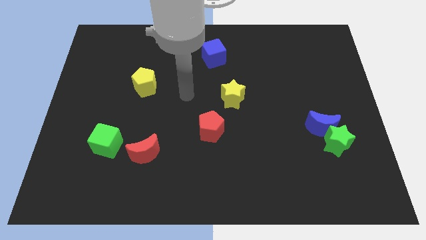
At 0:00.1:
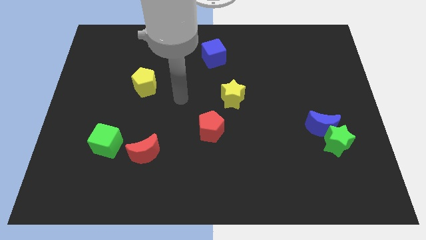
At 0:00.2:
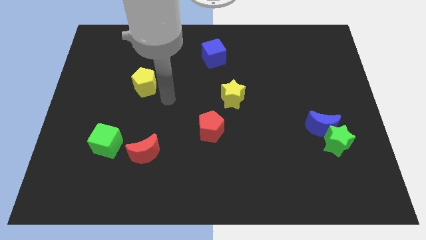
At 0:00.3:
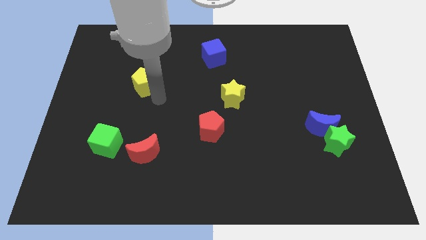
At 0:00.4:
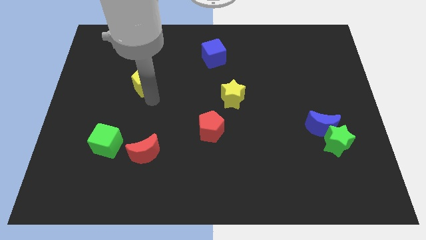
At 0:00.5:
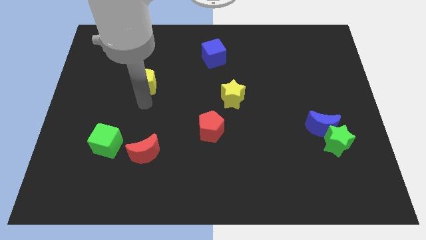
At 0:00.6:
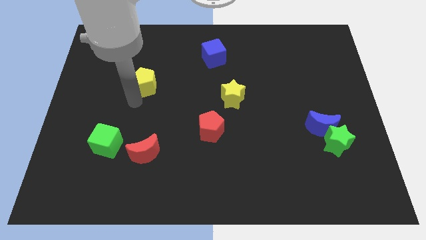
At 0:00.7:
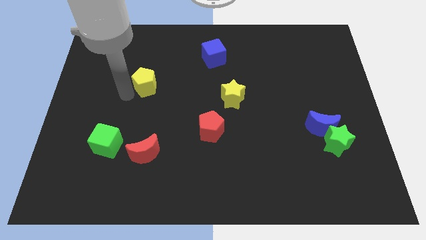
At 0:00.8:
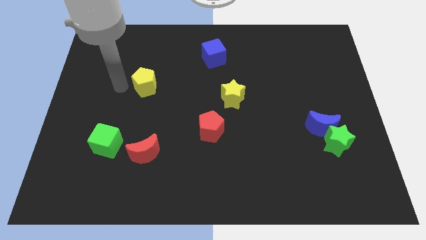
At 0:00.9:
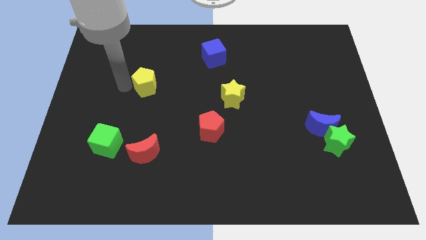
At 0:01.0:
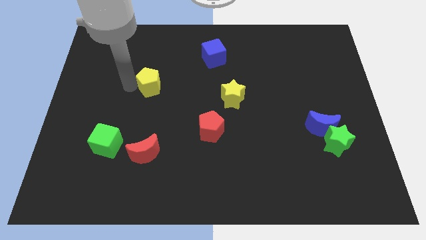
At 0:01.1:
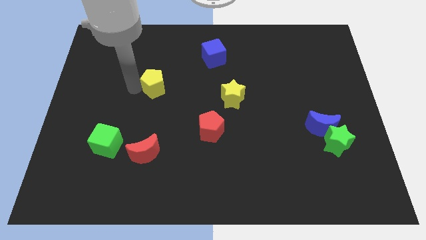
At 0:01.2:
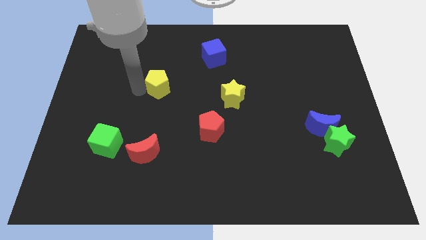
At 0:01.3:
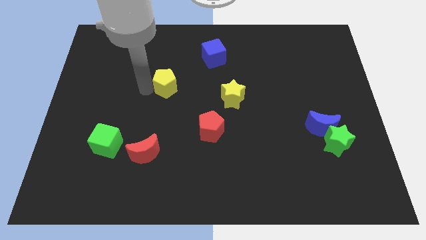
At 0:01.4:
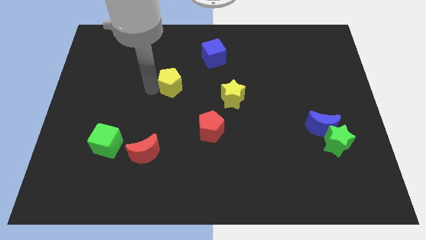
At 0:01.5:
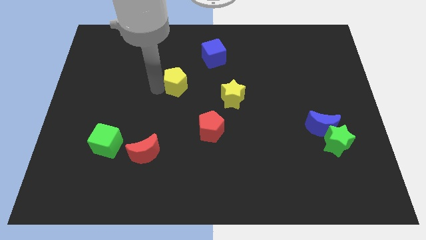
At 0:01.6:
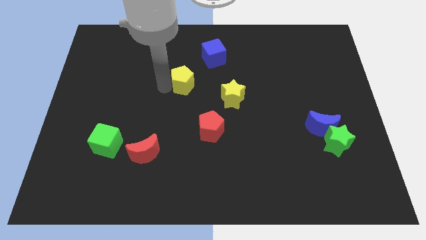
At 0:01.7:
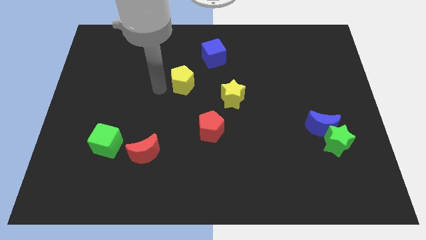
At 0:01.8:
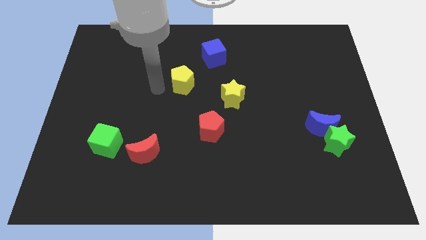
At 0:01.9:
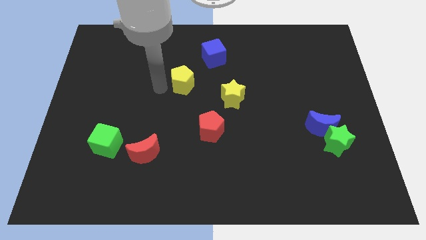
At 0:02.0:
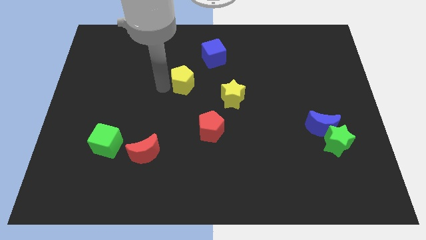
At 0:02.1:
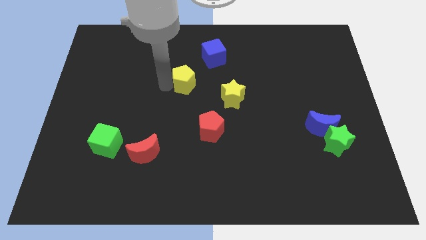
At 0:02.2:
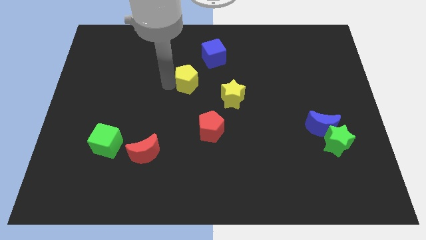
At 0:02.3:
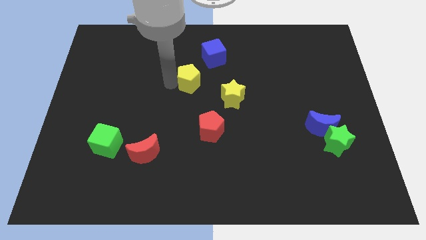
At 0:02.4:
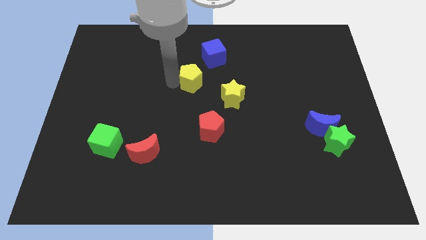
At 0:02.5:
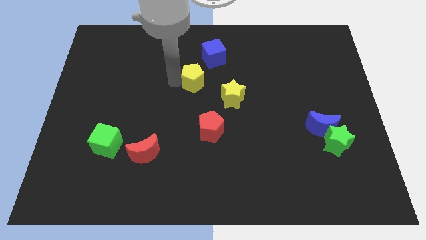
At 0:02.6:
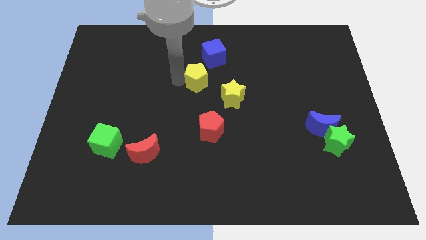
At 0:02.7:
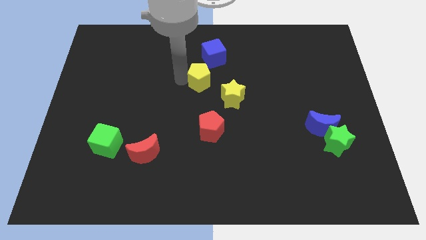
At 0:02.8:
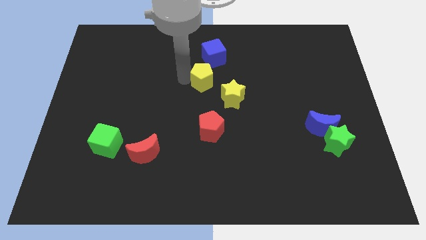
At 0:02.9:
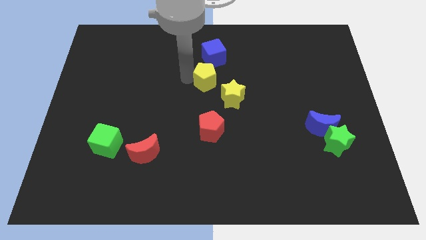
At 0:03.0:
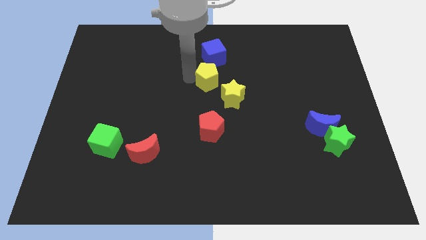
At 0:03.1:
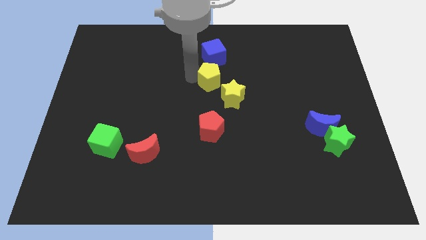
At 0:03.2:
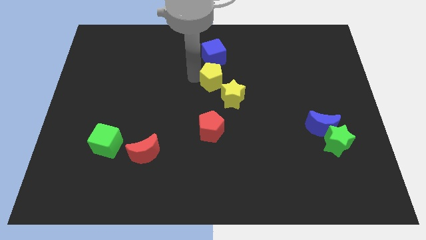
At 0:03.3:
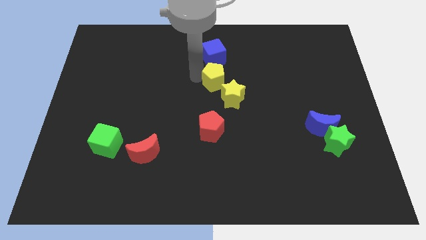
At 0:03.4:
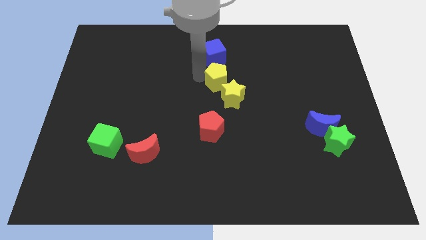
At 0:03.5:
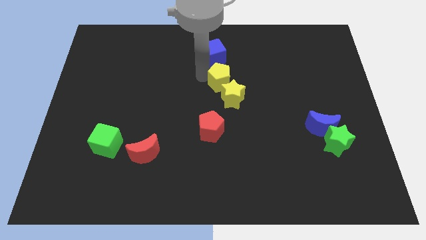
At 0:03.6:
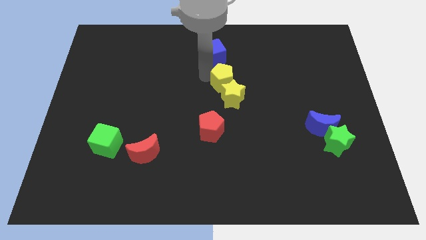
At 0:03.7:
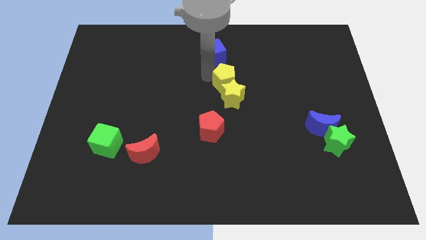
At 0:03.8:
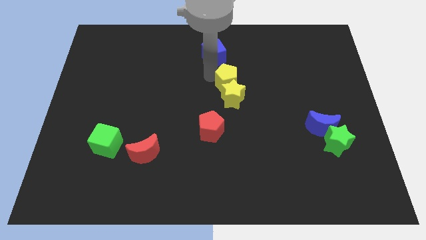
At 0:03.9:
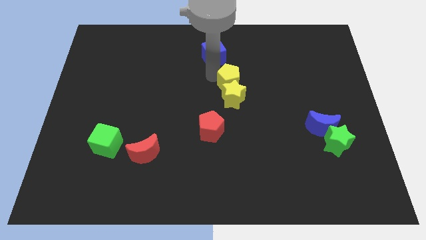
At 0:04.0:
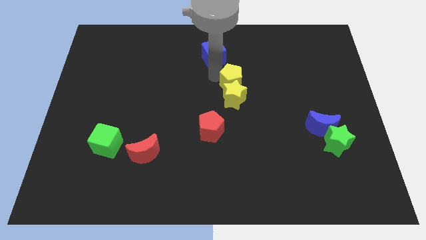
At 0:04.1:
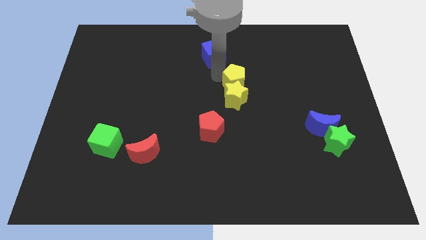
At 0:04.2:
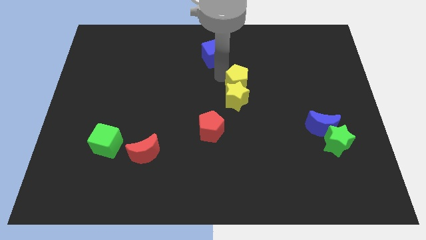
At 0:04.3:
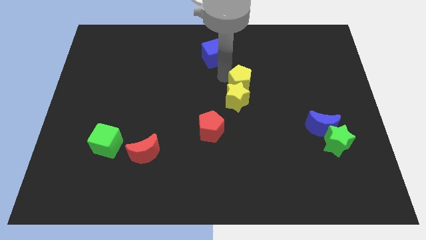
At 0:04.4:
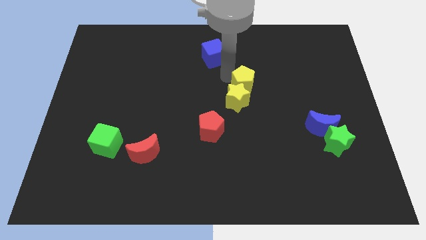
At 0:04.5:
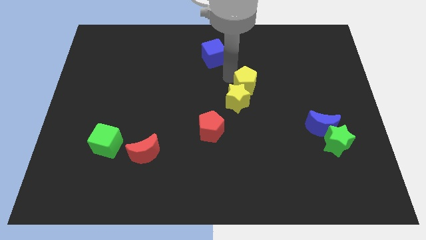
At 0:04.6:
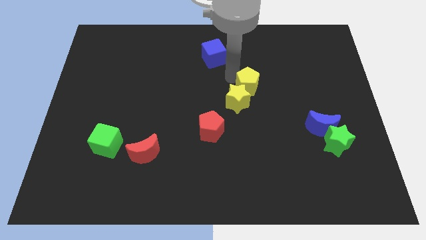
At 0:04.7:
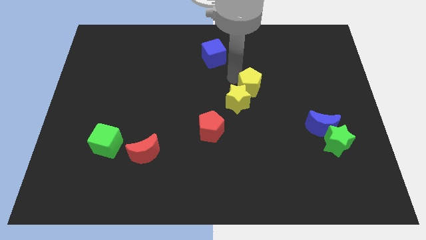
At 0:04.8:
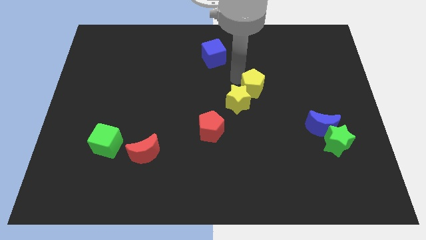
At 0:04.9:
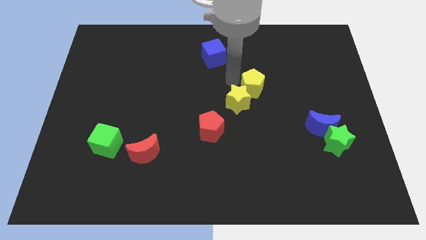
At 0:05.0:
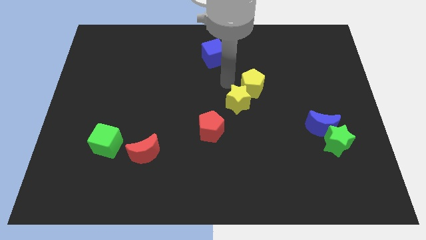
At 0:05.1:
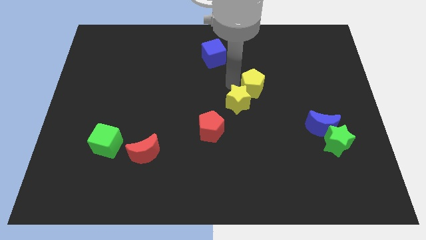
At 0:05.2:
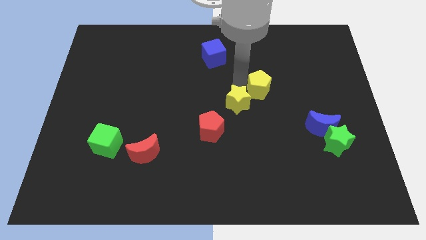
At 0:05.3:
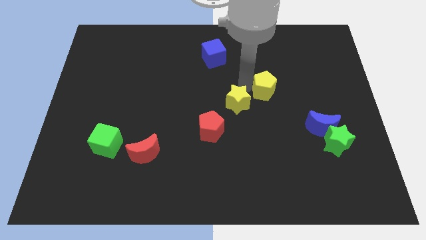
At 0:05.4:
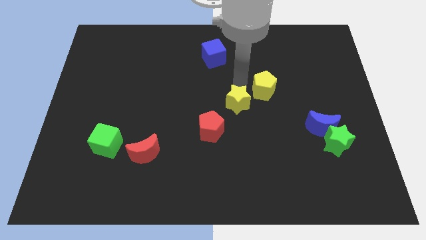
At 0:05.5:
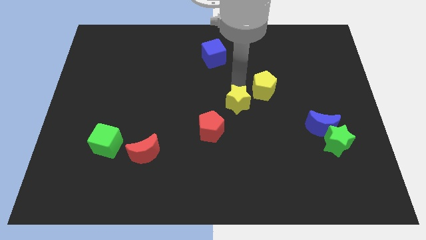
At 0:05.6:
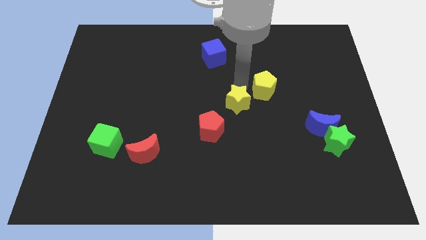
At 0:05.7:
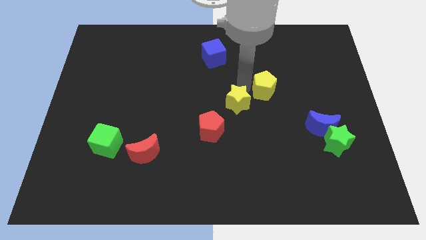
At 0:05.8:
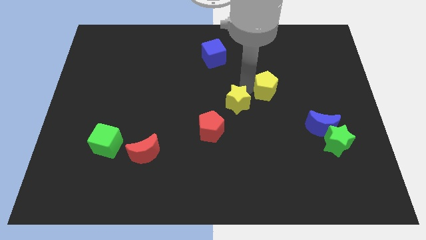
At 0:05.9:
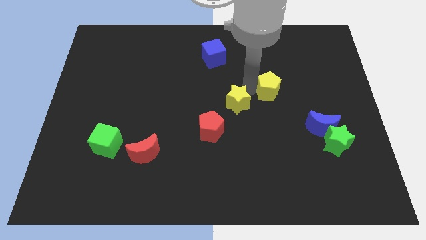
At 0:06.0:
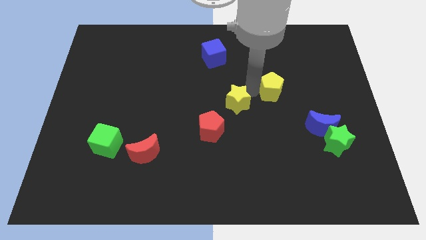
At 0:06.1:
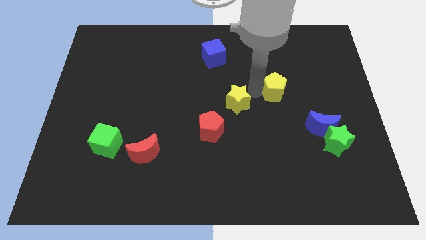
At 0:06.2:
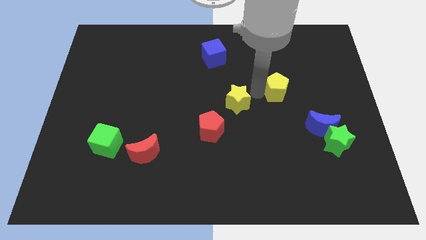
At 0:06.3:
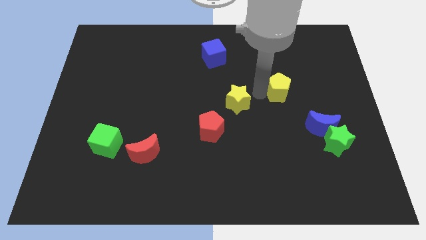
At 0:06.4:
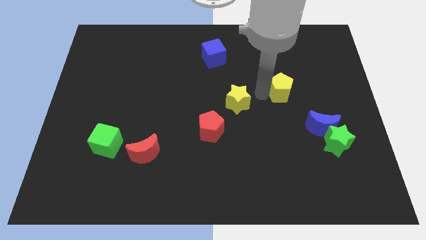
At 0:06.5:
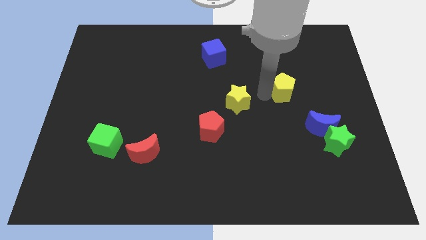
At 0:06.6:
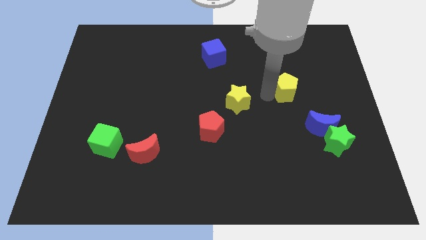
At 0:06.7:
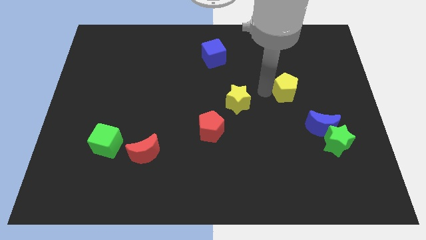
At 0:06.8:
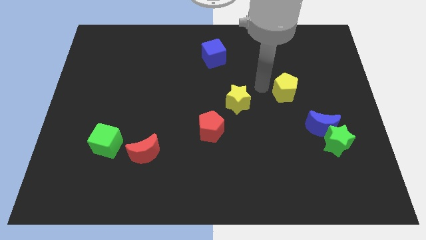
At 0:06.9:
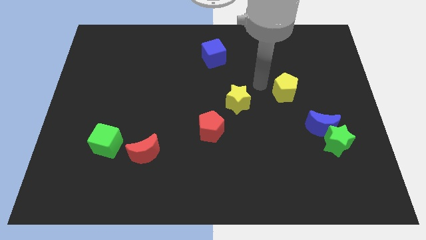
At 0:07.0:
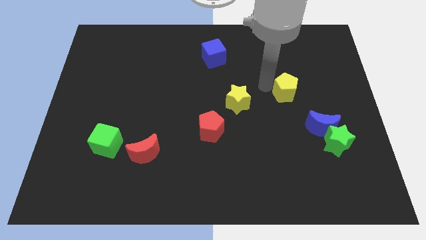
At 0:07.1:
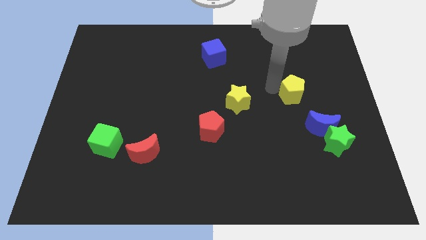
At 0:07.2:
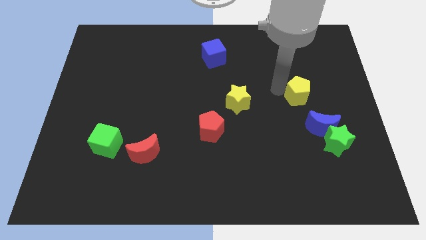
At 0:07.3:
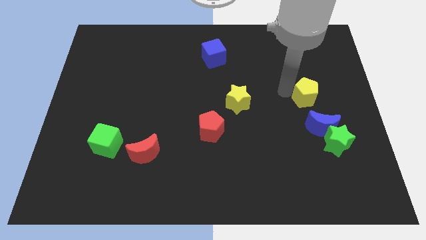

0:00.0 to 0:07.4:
push the yellow pentagon above the green star
